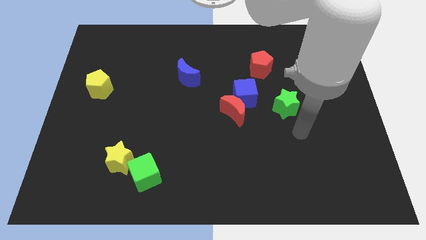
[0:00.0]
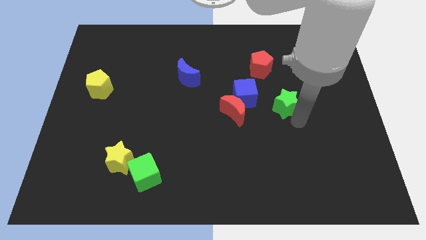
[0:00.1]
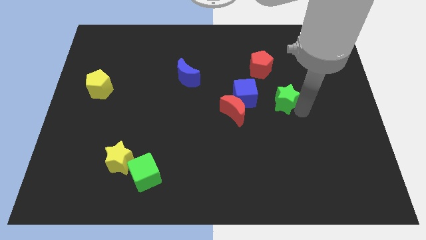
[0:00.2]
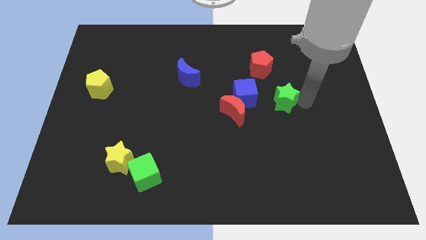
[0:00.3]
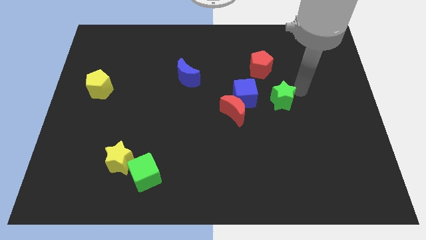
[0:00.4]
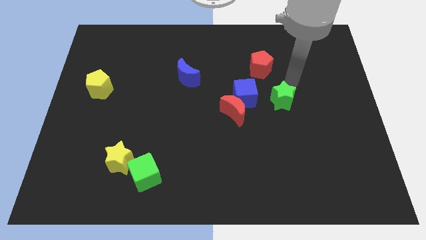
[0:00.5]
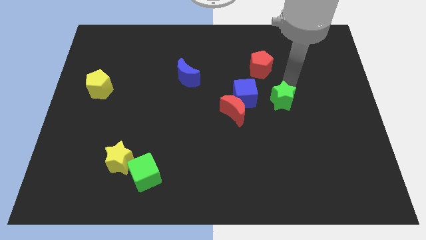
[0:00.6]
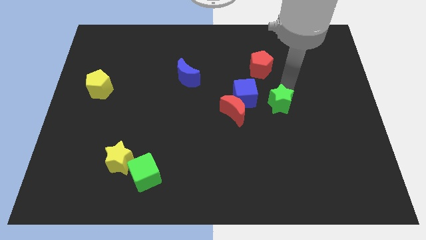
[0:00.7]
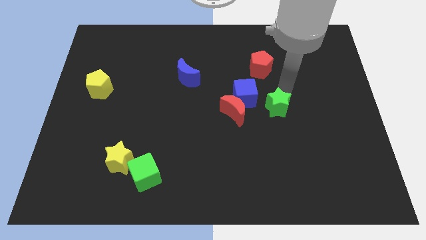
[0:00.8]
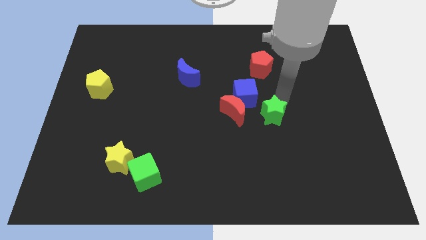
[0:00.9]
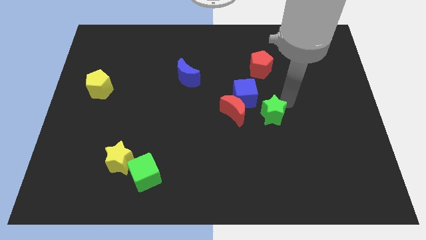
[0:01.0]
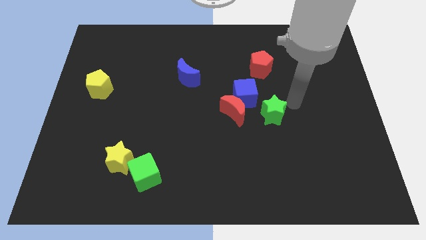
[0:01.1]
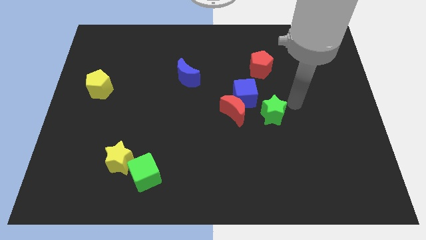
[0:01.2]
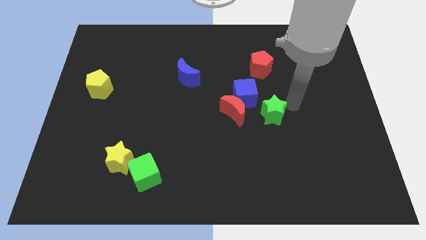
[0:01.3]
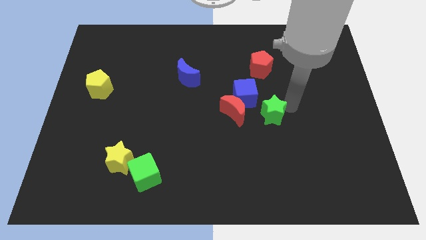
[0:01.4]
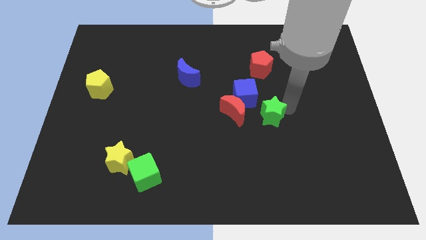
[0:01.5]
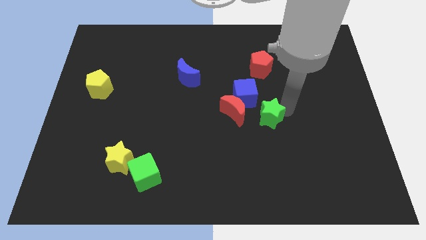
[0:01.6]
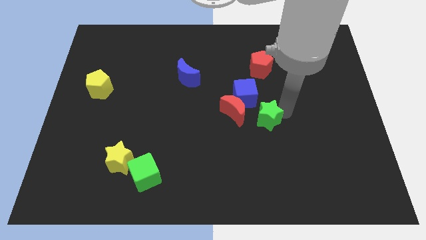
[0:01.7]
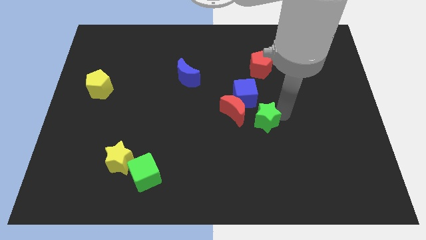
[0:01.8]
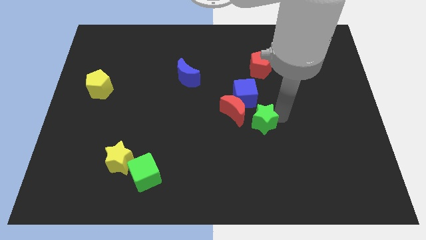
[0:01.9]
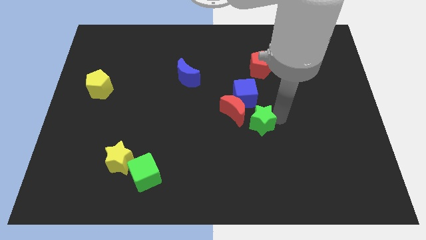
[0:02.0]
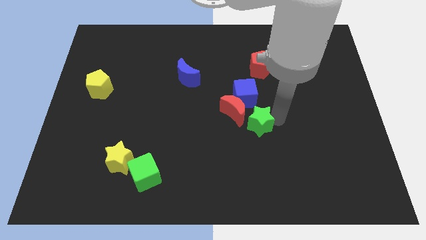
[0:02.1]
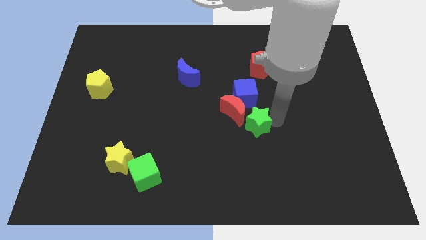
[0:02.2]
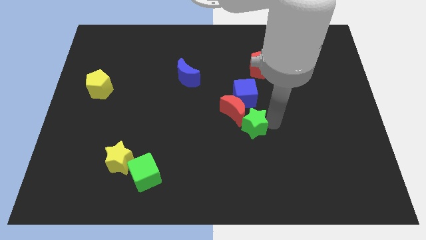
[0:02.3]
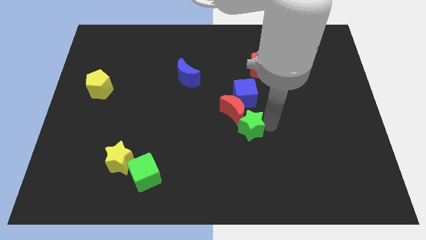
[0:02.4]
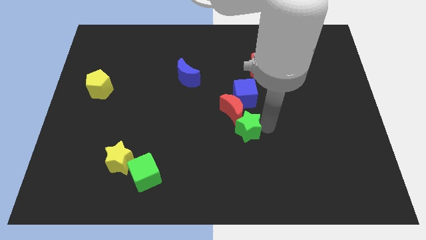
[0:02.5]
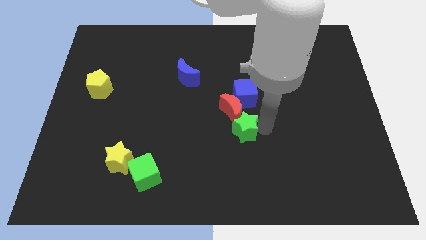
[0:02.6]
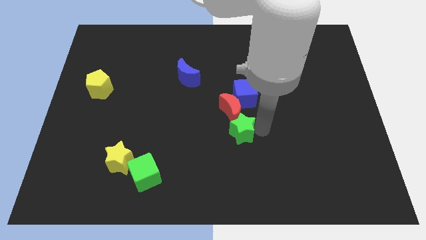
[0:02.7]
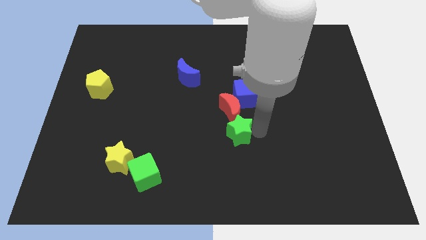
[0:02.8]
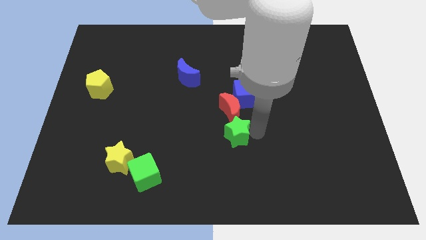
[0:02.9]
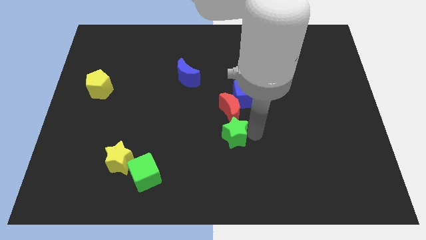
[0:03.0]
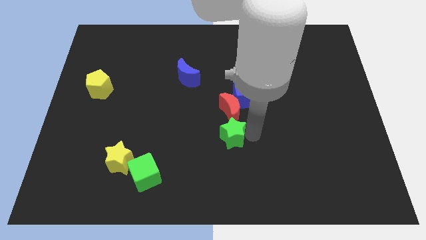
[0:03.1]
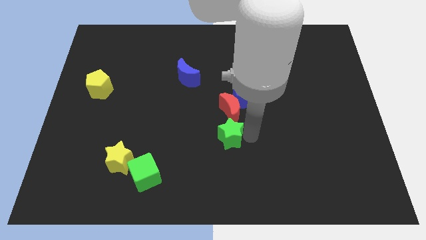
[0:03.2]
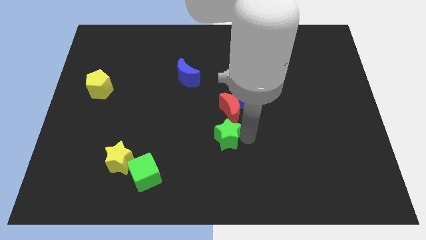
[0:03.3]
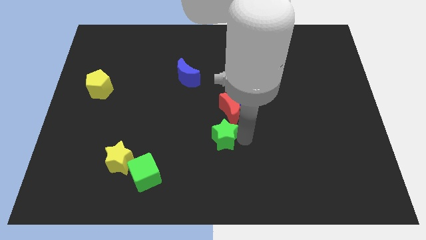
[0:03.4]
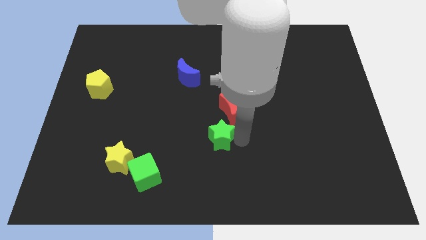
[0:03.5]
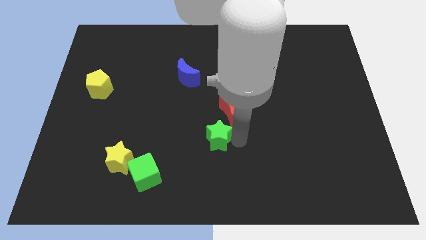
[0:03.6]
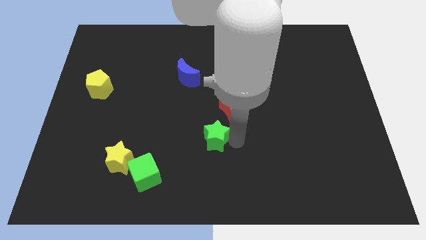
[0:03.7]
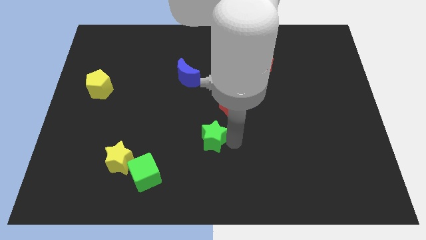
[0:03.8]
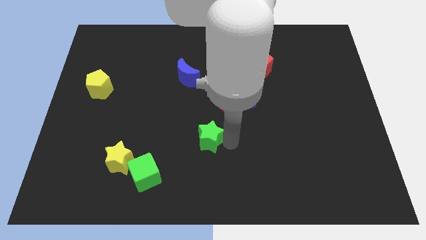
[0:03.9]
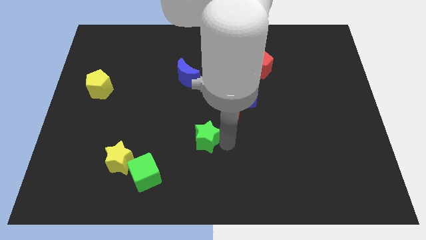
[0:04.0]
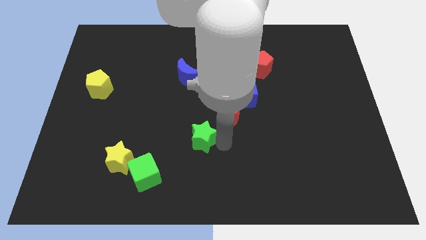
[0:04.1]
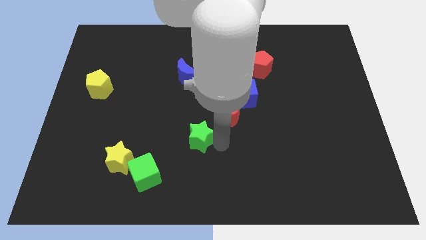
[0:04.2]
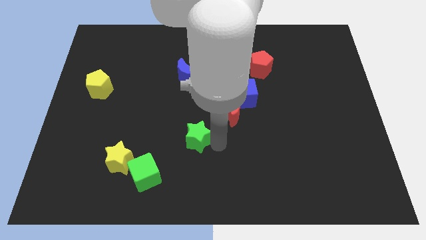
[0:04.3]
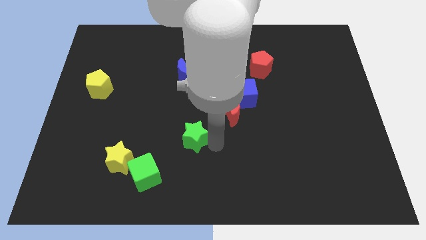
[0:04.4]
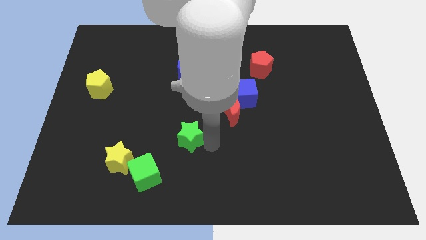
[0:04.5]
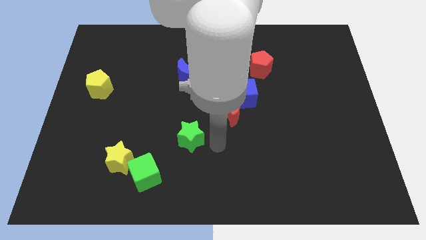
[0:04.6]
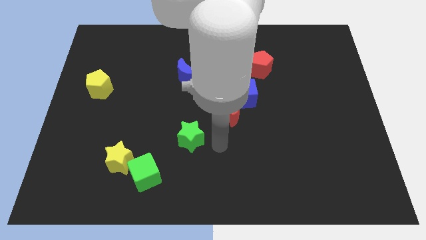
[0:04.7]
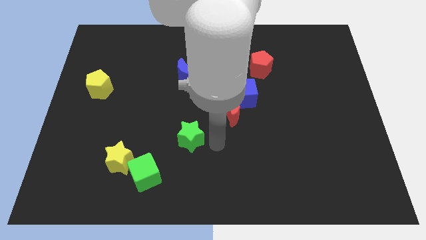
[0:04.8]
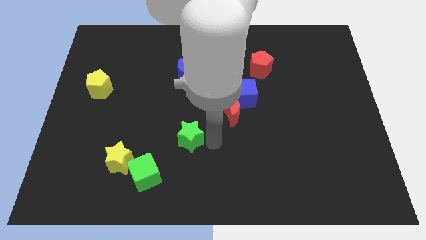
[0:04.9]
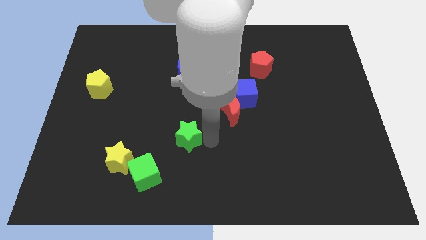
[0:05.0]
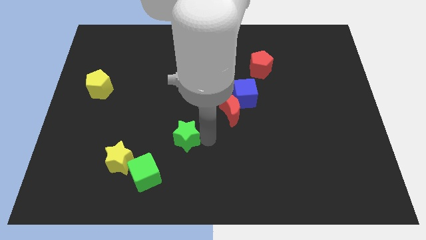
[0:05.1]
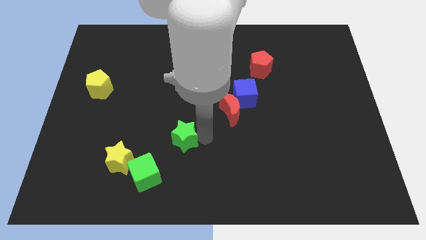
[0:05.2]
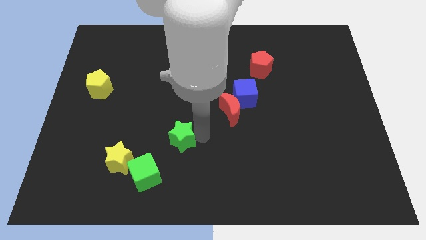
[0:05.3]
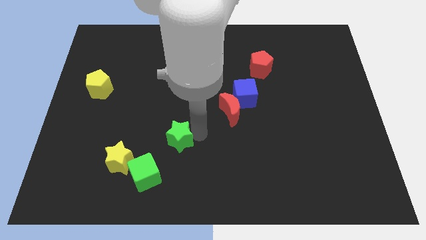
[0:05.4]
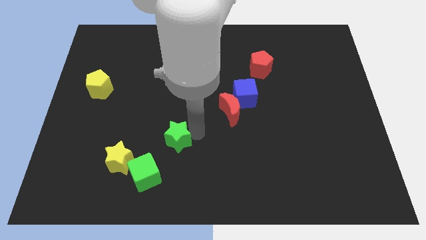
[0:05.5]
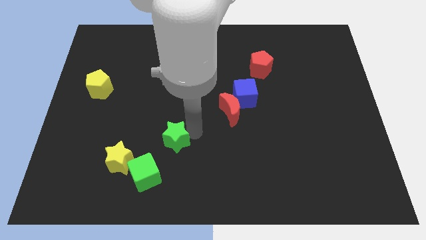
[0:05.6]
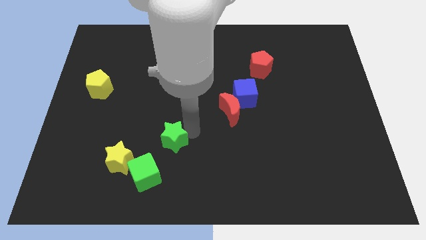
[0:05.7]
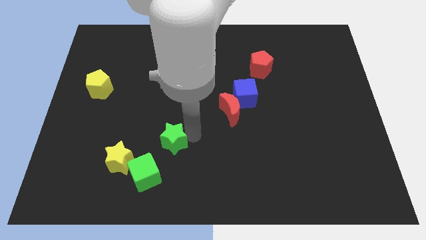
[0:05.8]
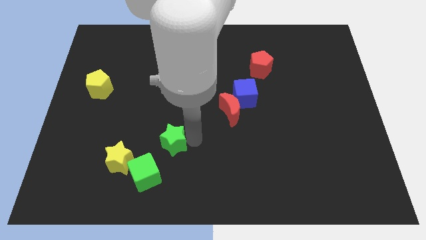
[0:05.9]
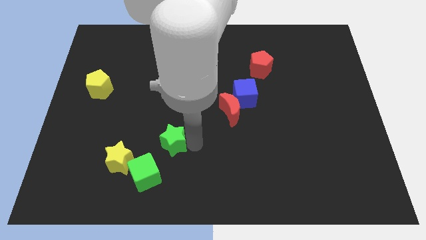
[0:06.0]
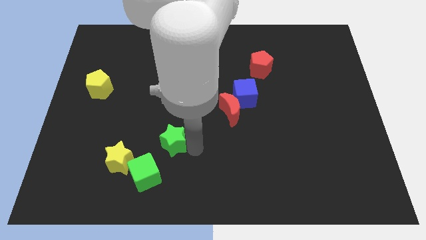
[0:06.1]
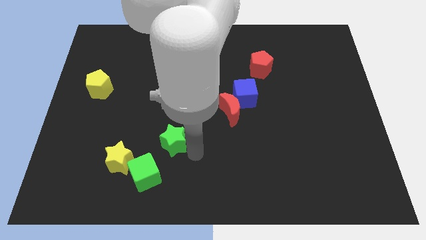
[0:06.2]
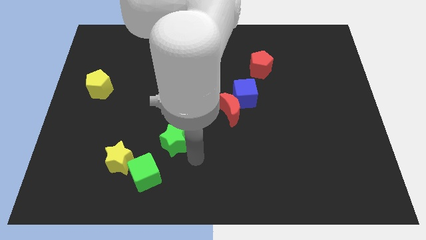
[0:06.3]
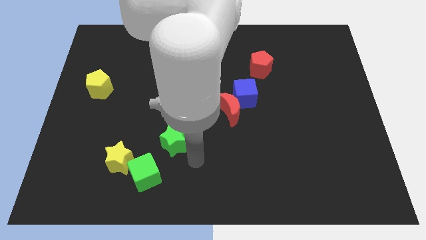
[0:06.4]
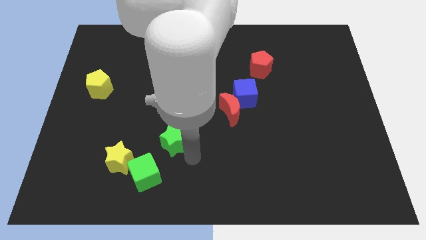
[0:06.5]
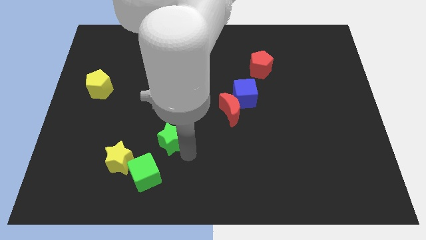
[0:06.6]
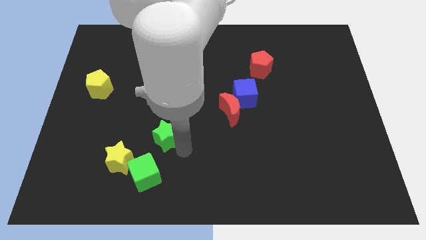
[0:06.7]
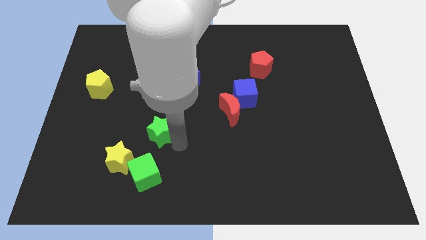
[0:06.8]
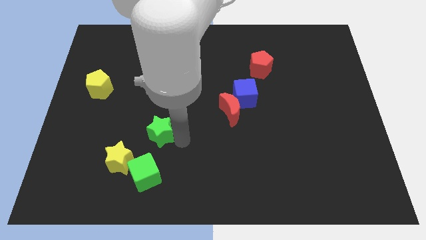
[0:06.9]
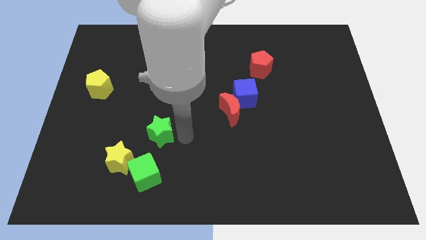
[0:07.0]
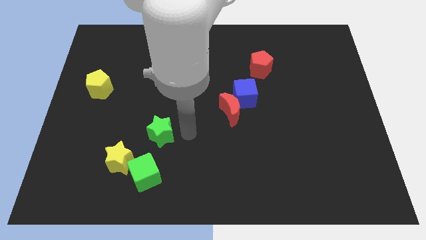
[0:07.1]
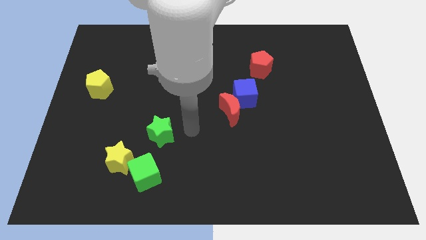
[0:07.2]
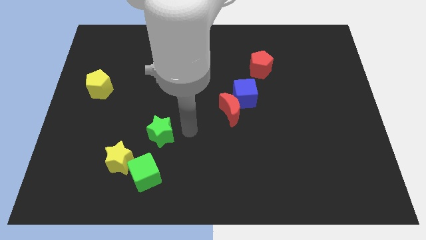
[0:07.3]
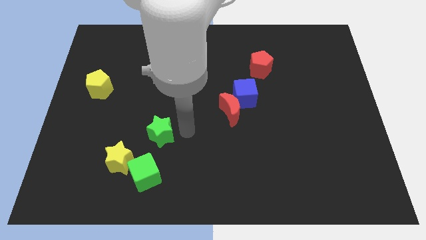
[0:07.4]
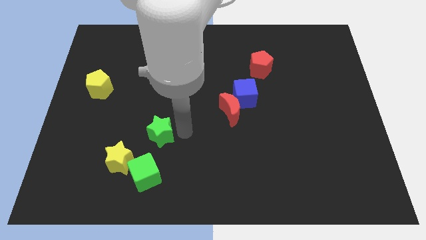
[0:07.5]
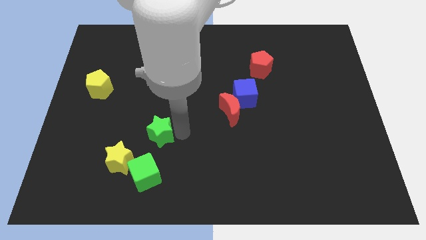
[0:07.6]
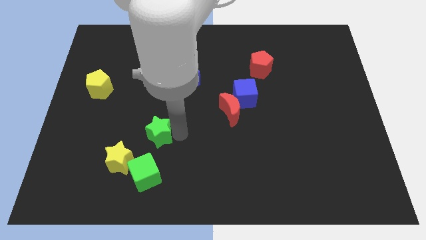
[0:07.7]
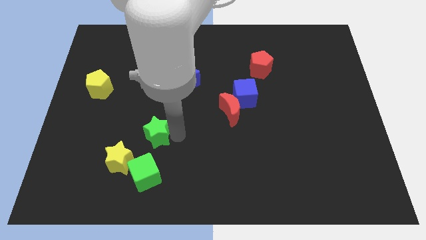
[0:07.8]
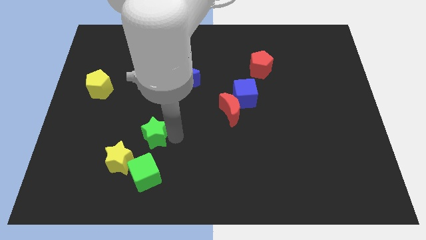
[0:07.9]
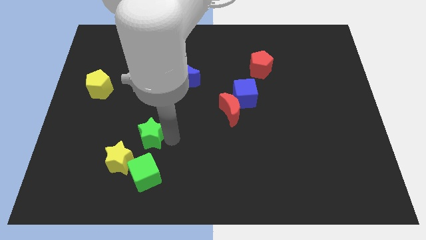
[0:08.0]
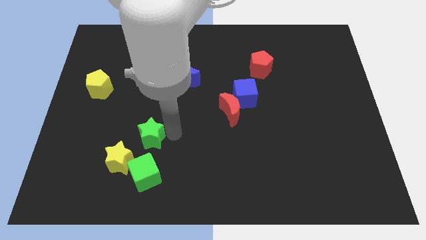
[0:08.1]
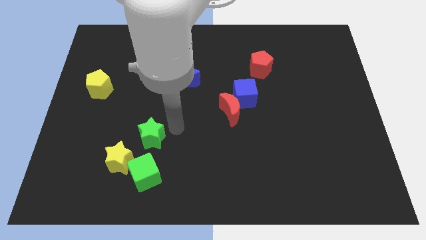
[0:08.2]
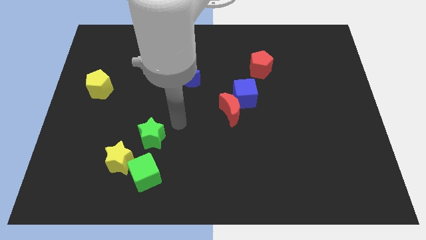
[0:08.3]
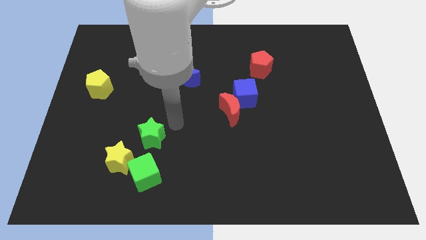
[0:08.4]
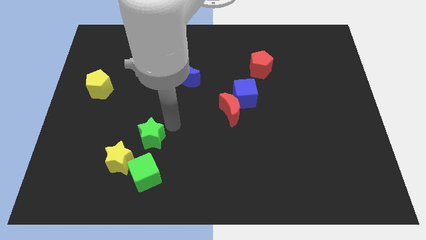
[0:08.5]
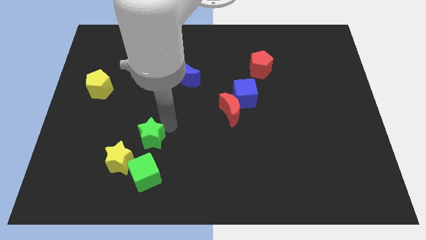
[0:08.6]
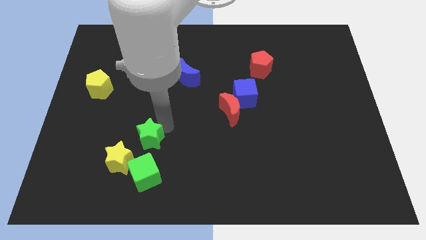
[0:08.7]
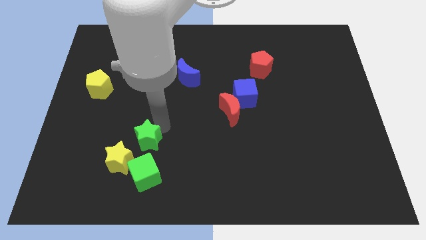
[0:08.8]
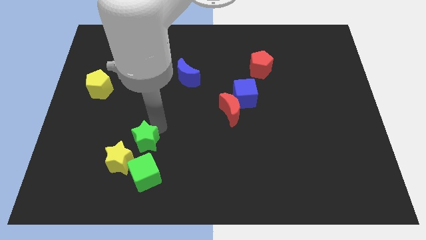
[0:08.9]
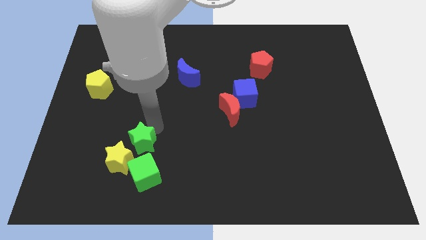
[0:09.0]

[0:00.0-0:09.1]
push the green star to the top left of the green cube
